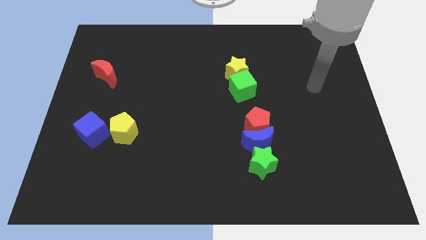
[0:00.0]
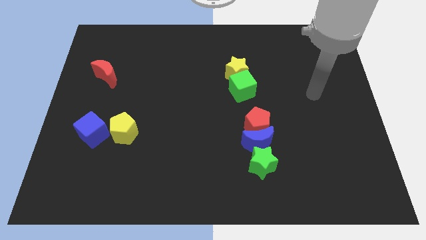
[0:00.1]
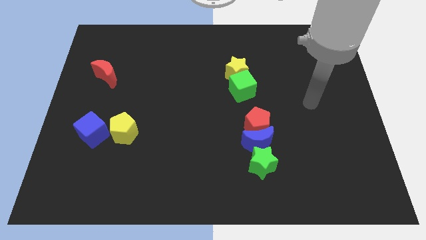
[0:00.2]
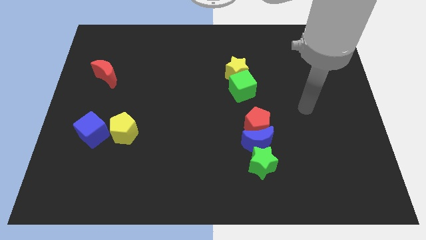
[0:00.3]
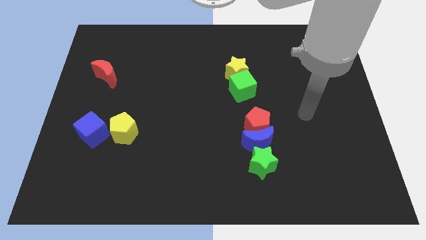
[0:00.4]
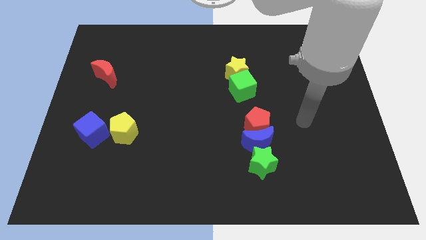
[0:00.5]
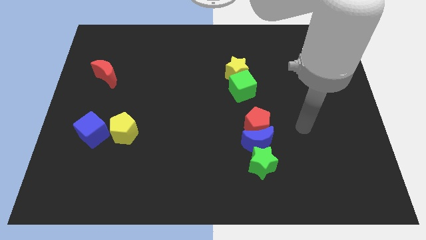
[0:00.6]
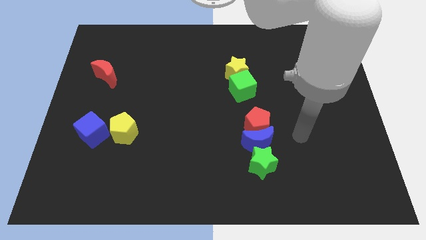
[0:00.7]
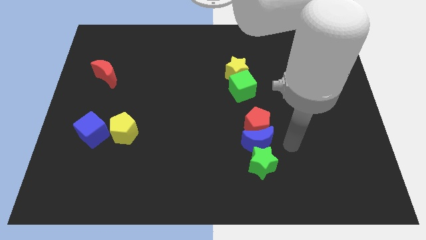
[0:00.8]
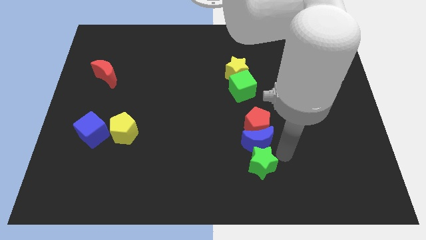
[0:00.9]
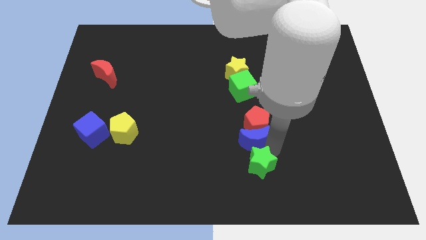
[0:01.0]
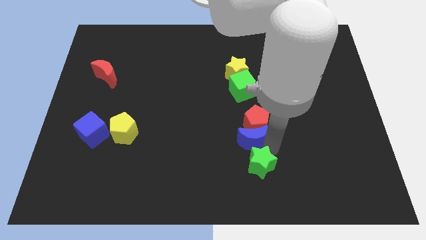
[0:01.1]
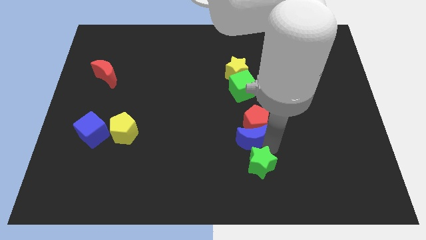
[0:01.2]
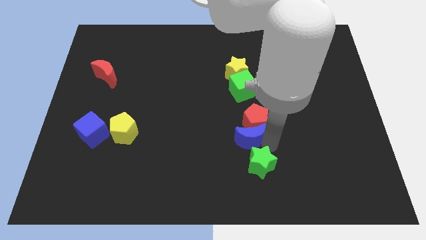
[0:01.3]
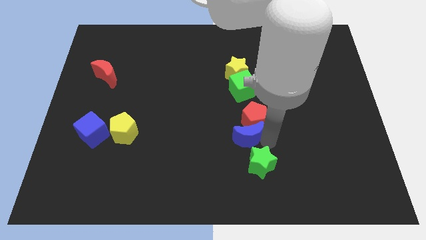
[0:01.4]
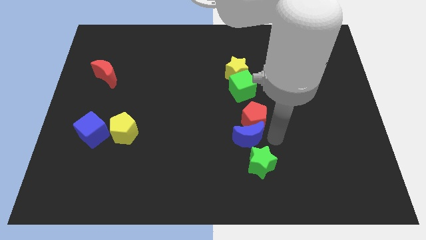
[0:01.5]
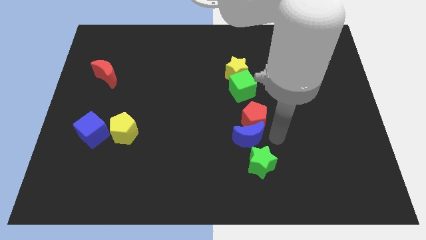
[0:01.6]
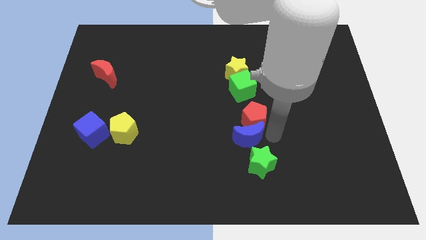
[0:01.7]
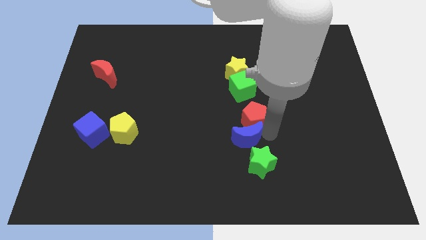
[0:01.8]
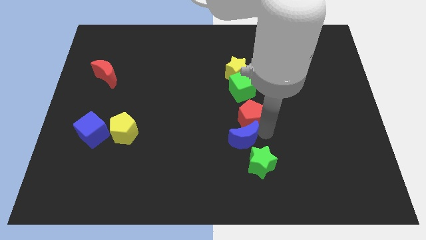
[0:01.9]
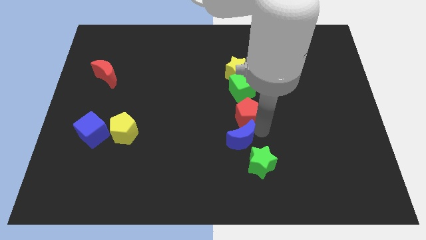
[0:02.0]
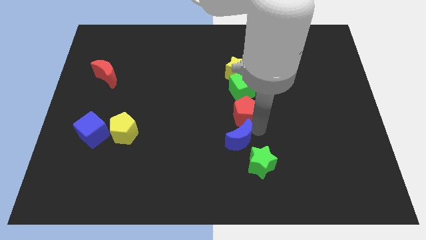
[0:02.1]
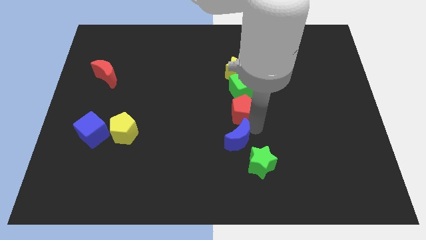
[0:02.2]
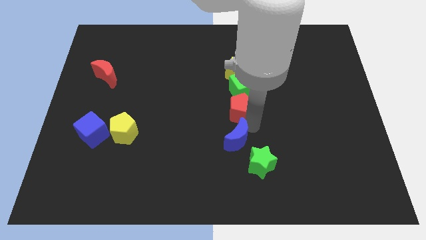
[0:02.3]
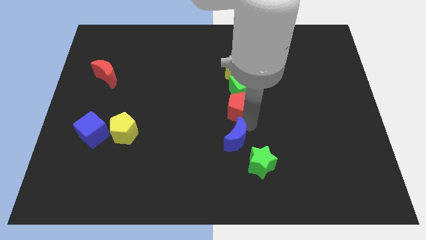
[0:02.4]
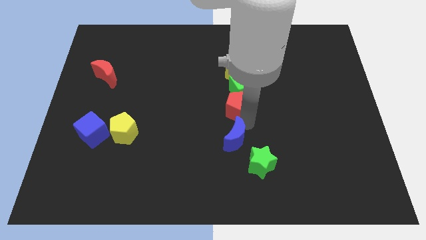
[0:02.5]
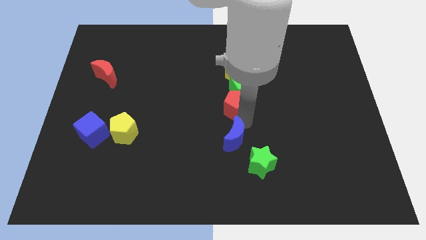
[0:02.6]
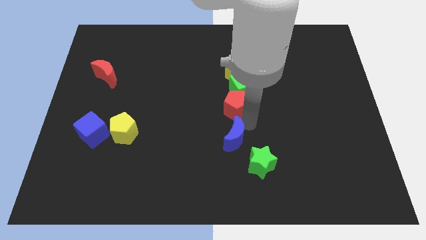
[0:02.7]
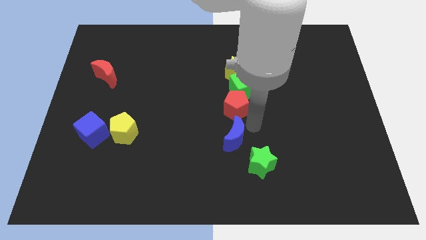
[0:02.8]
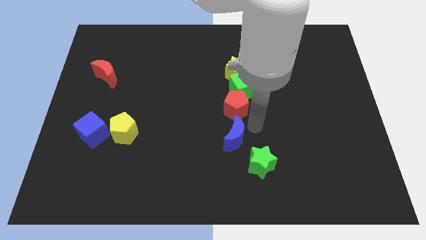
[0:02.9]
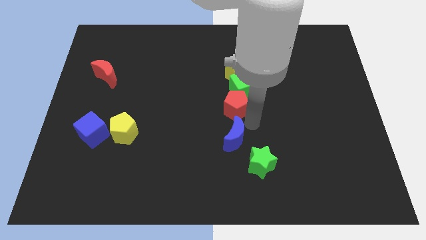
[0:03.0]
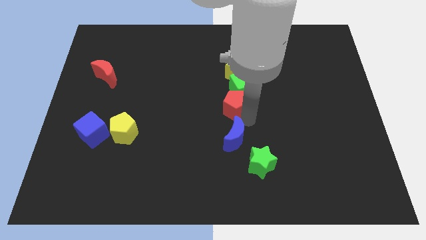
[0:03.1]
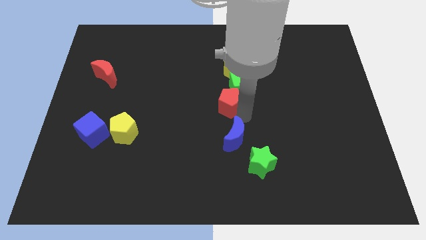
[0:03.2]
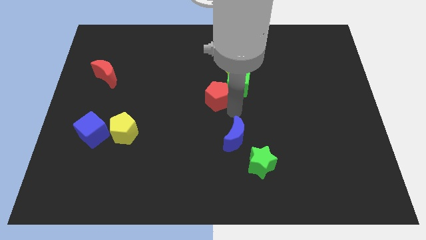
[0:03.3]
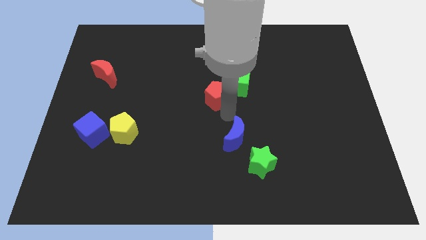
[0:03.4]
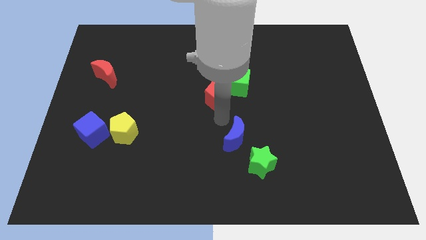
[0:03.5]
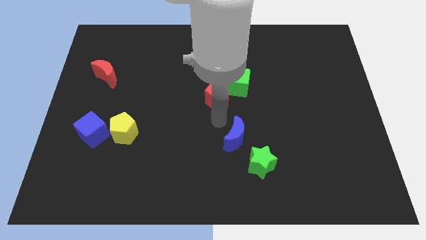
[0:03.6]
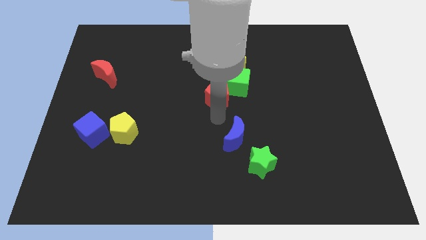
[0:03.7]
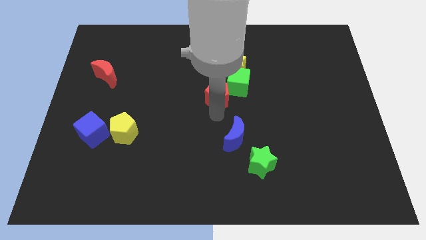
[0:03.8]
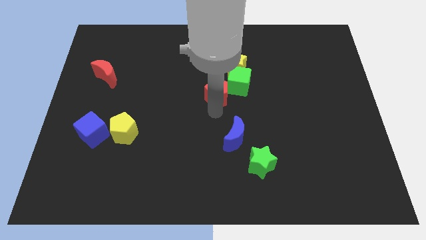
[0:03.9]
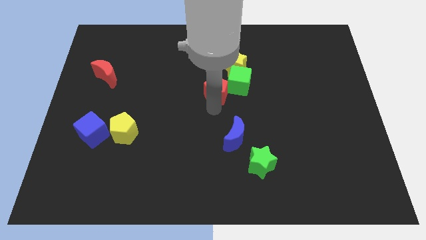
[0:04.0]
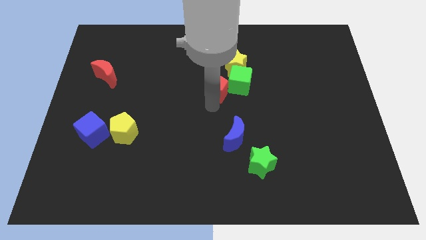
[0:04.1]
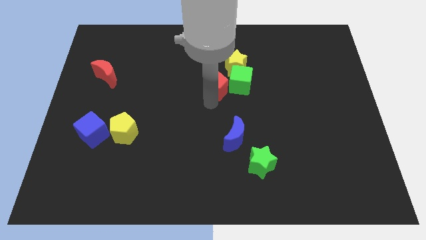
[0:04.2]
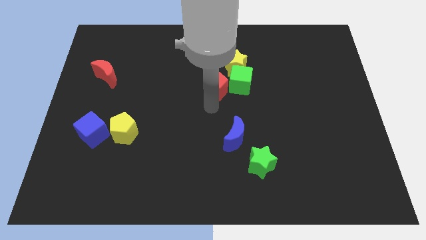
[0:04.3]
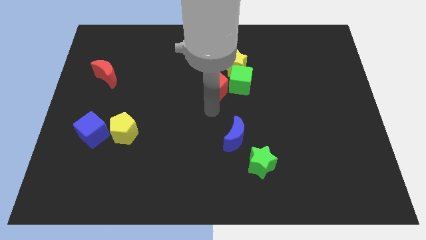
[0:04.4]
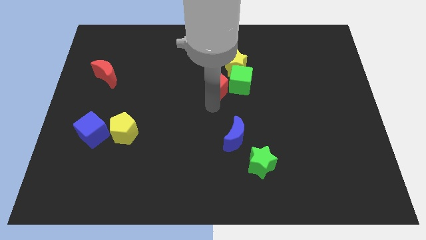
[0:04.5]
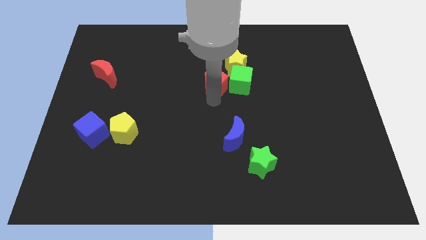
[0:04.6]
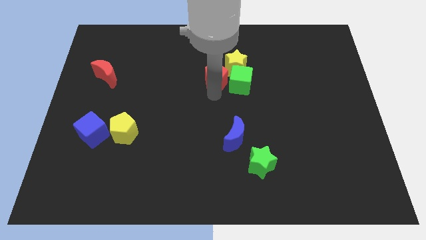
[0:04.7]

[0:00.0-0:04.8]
push the red pentagon to the top left side of the green cube

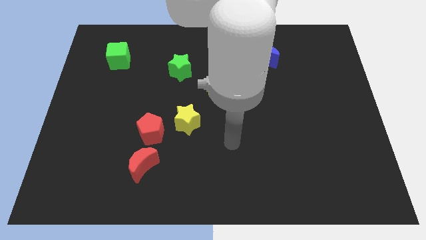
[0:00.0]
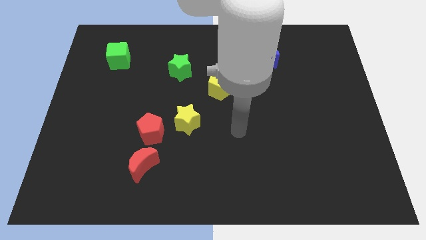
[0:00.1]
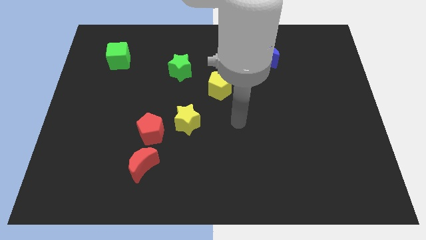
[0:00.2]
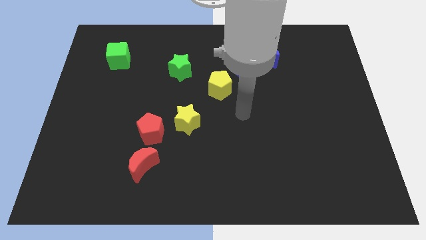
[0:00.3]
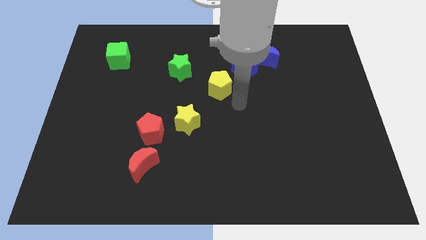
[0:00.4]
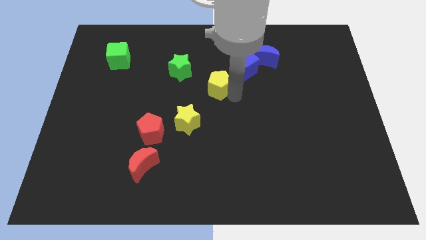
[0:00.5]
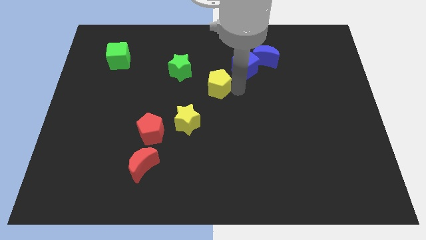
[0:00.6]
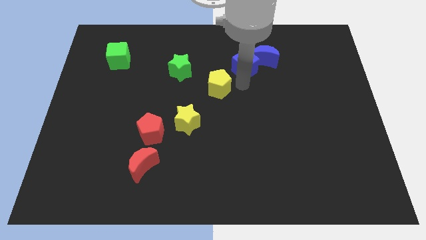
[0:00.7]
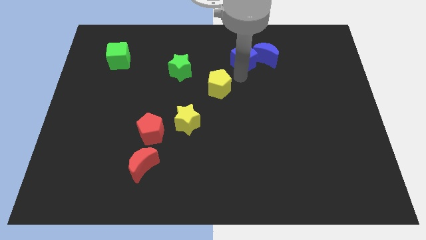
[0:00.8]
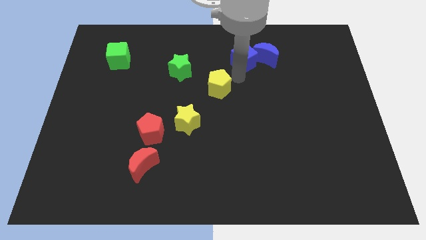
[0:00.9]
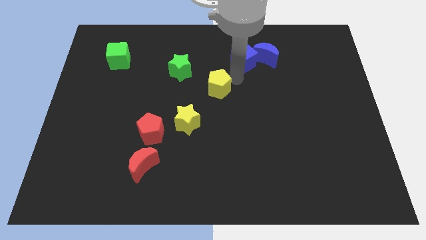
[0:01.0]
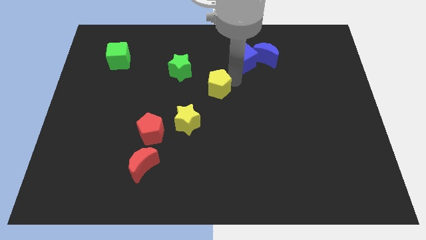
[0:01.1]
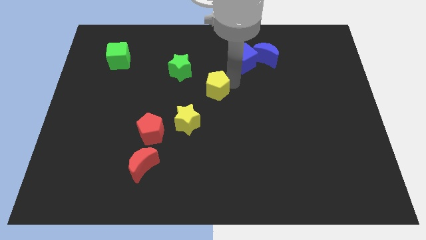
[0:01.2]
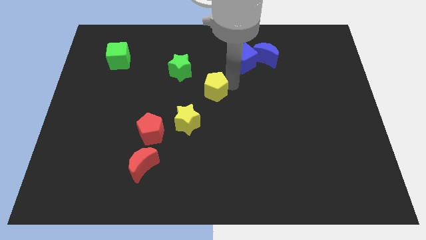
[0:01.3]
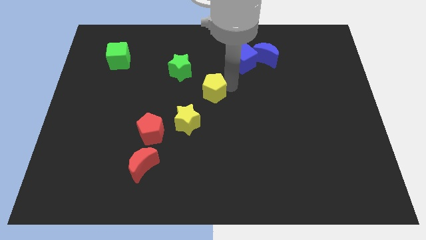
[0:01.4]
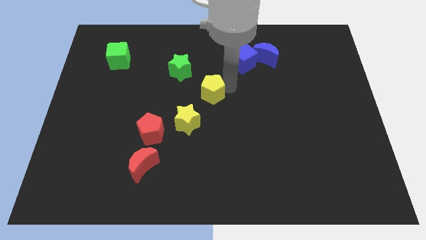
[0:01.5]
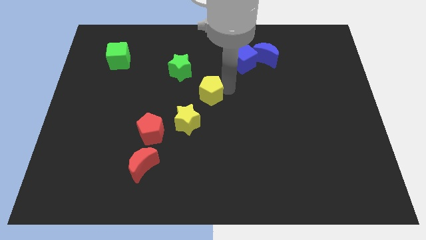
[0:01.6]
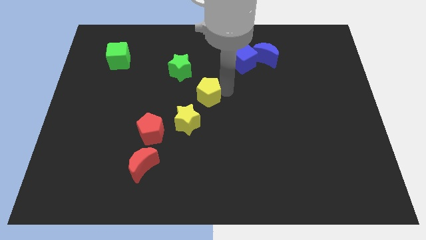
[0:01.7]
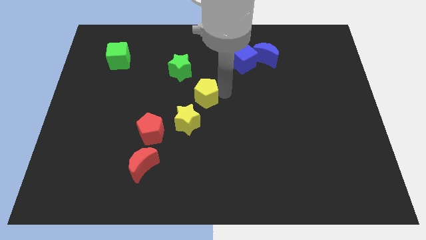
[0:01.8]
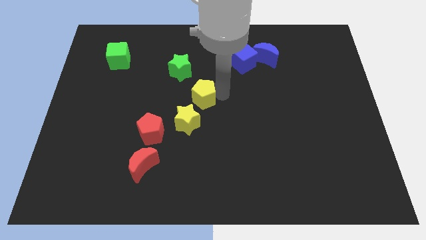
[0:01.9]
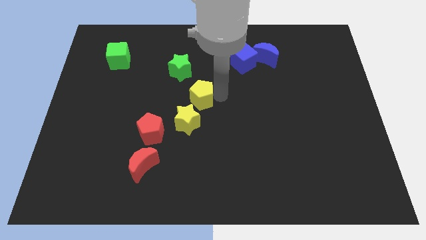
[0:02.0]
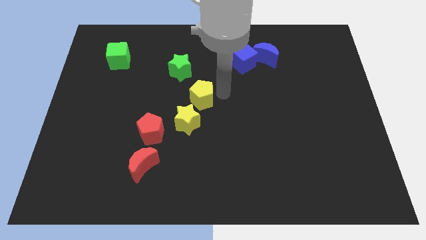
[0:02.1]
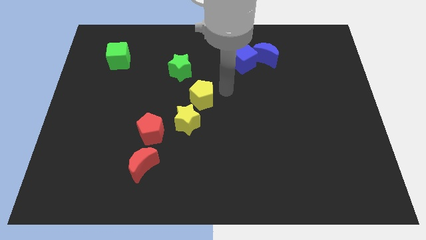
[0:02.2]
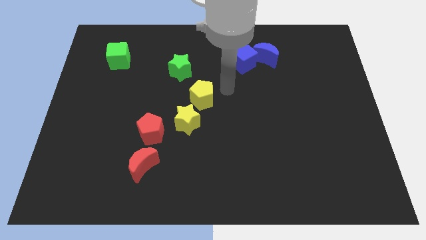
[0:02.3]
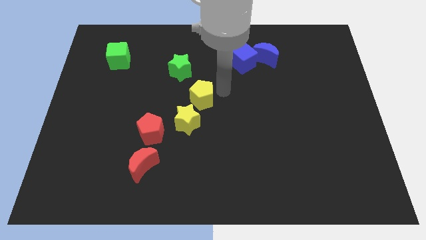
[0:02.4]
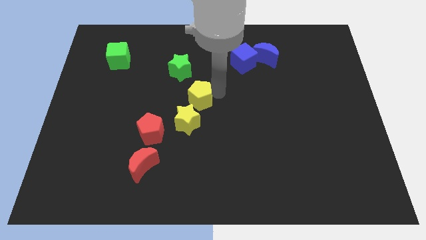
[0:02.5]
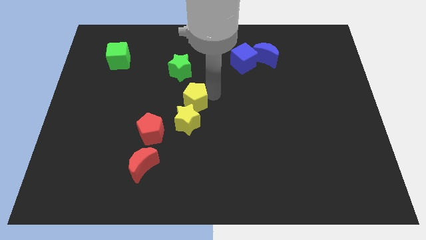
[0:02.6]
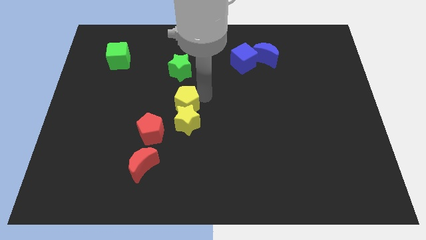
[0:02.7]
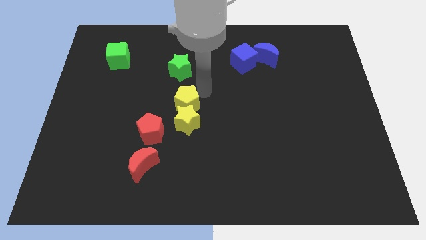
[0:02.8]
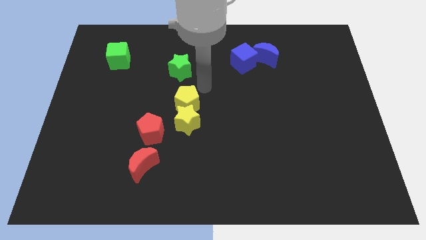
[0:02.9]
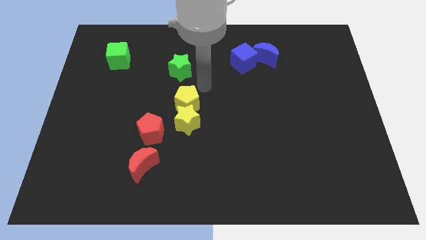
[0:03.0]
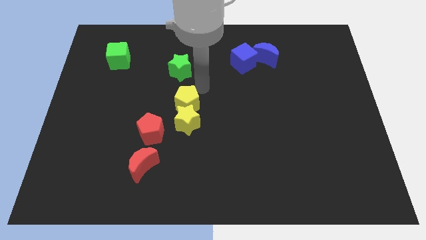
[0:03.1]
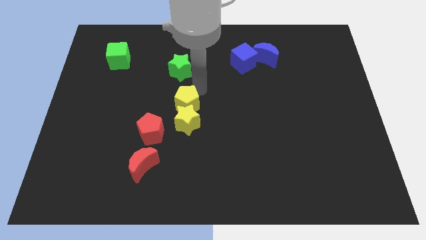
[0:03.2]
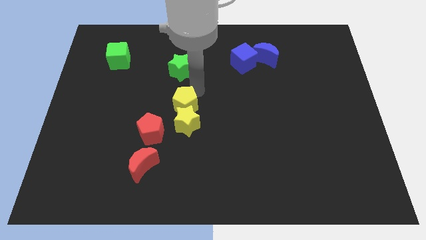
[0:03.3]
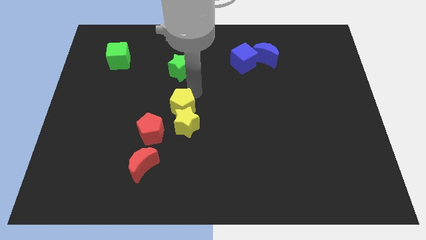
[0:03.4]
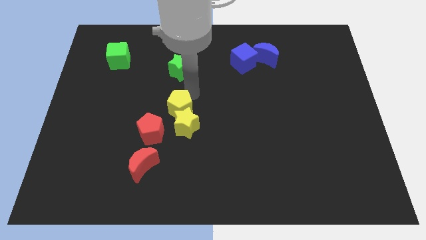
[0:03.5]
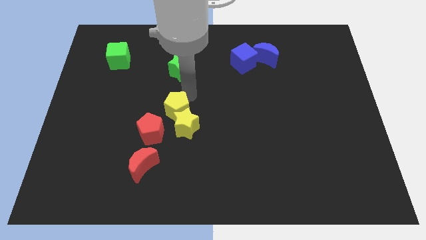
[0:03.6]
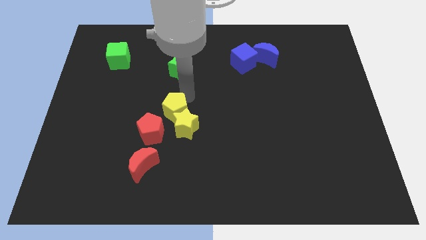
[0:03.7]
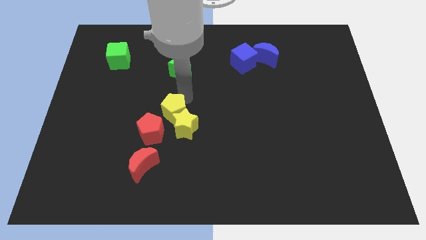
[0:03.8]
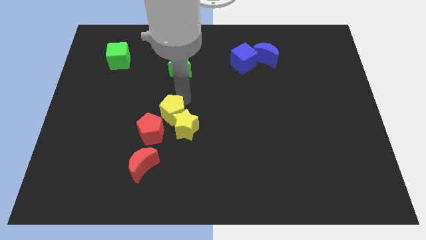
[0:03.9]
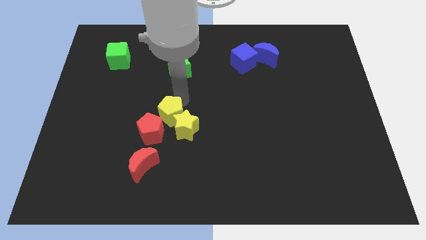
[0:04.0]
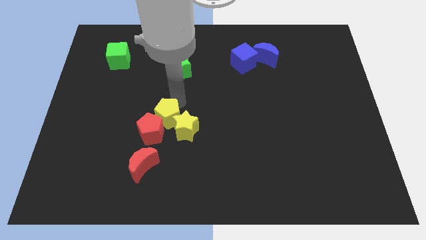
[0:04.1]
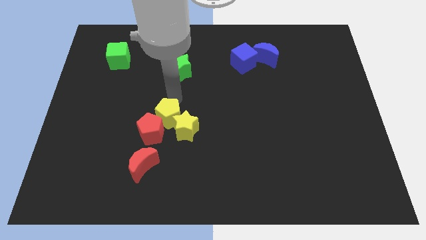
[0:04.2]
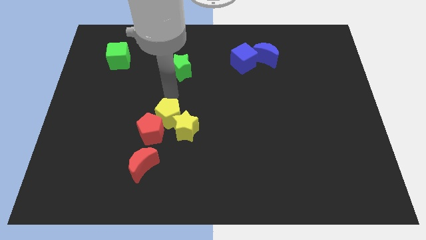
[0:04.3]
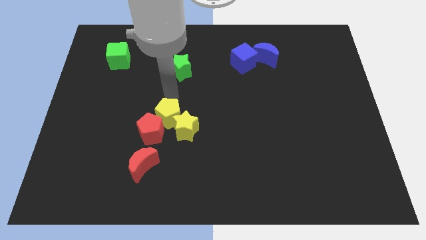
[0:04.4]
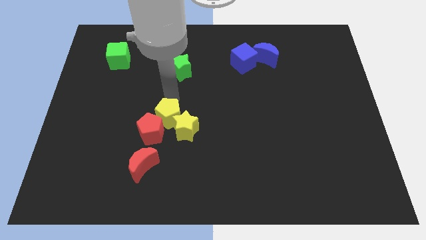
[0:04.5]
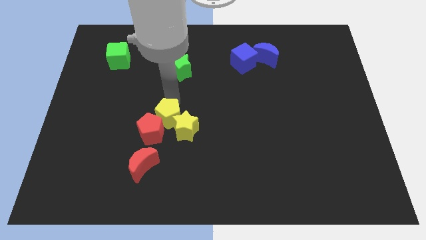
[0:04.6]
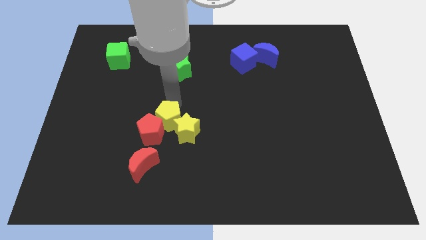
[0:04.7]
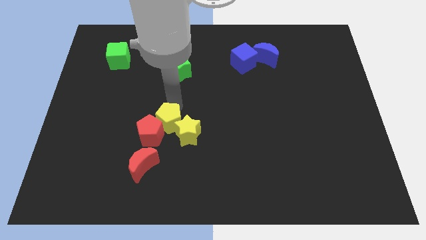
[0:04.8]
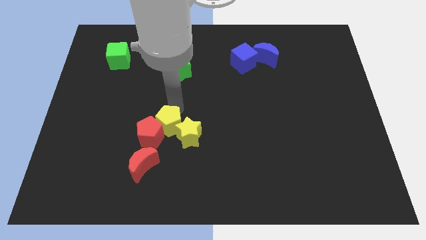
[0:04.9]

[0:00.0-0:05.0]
put the yellow pentagon diagonally up and to the right of the red moon
